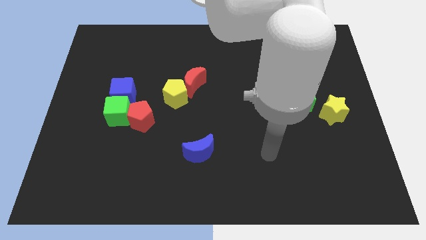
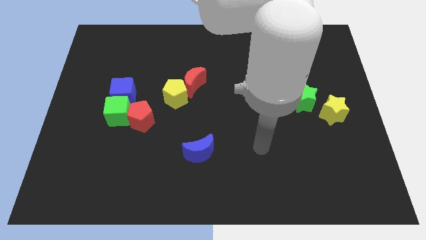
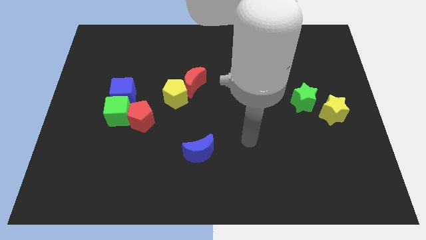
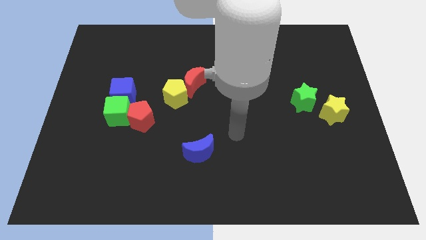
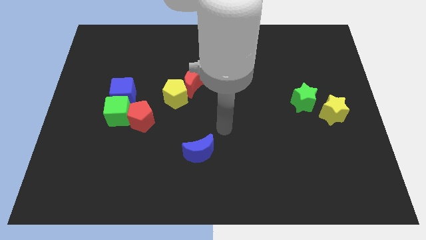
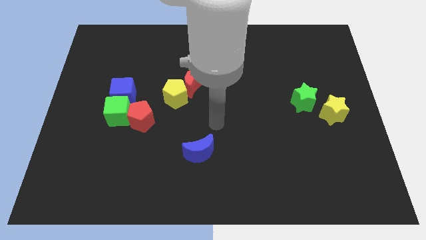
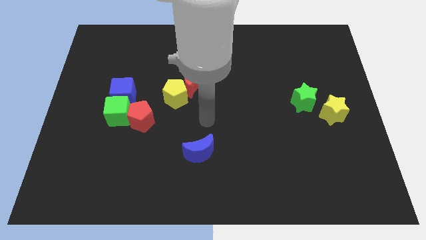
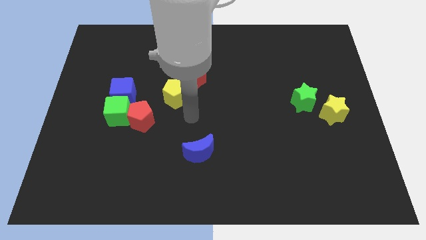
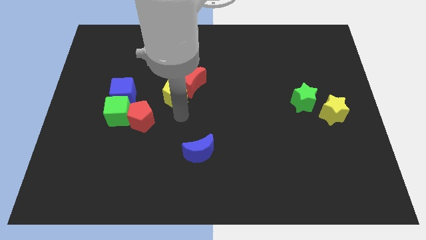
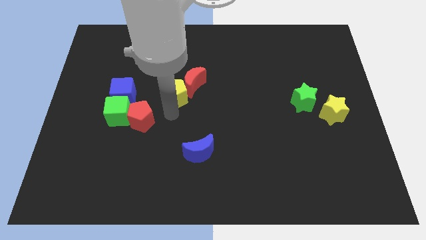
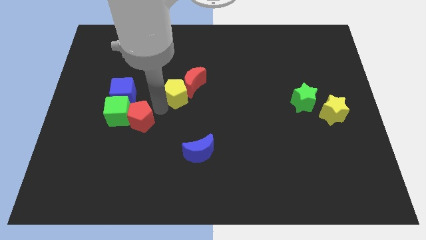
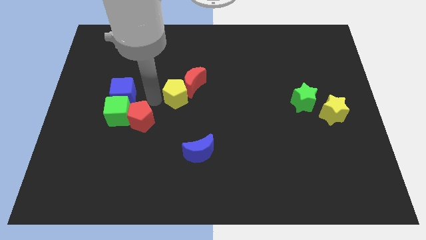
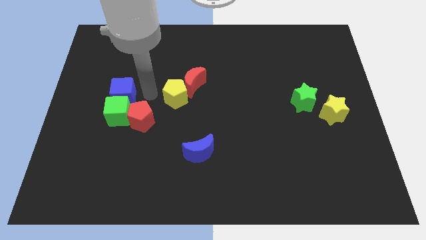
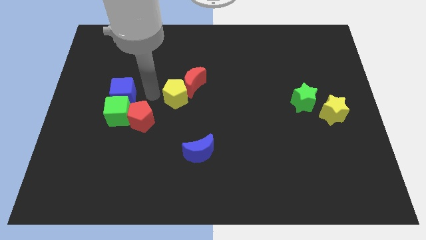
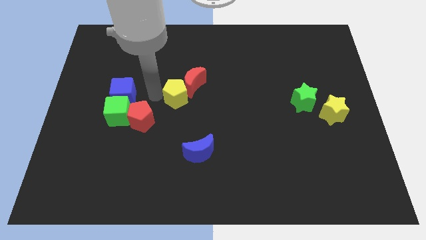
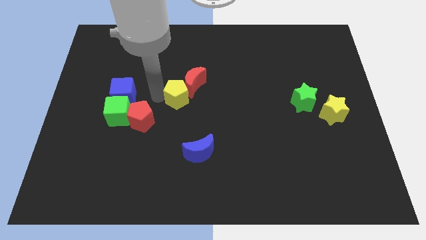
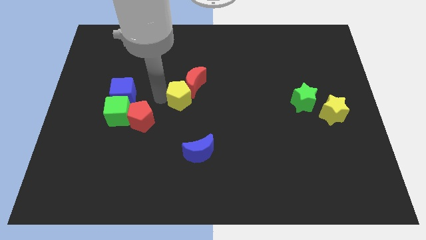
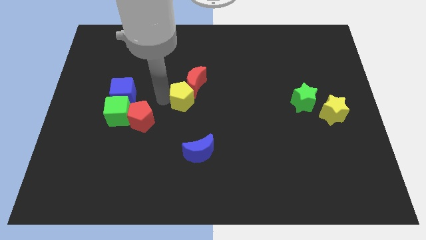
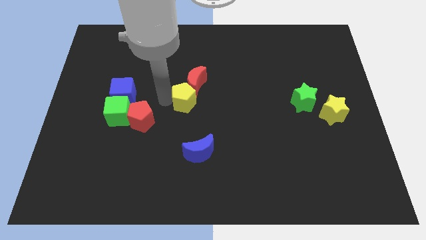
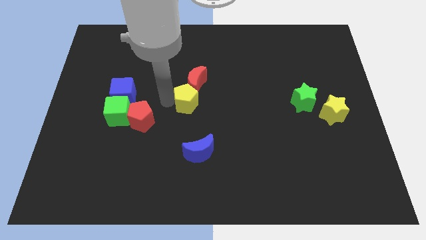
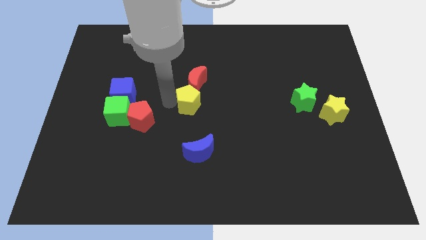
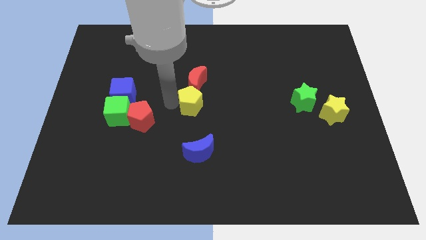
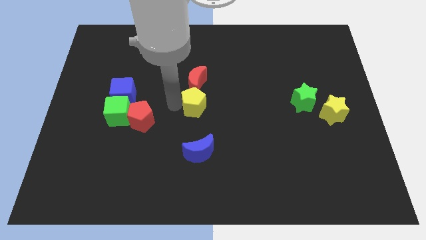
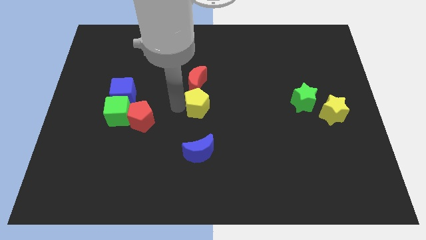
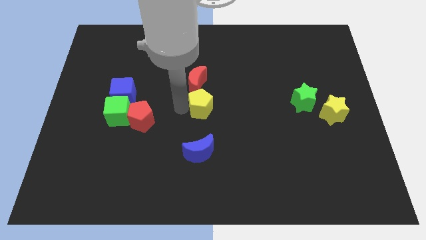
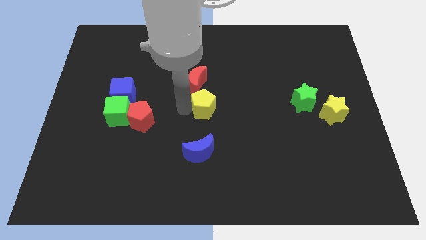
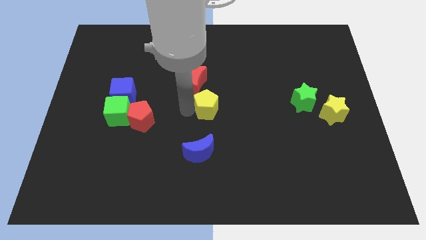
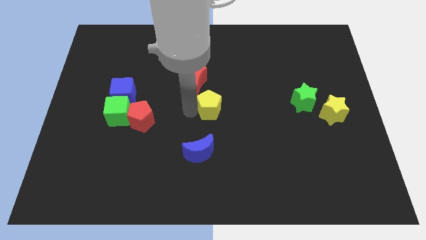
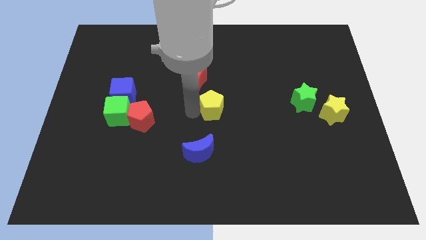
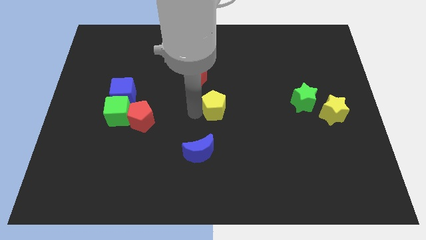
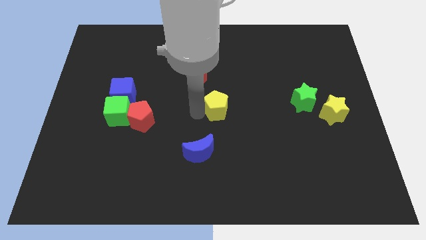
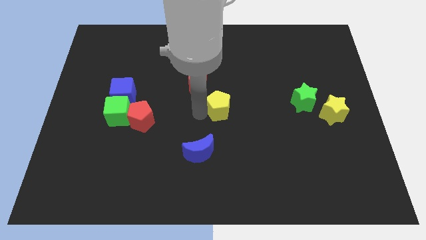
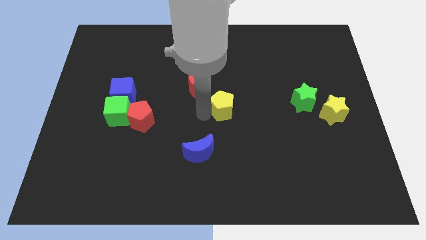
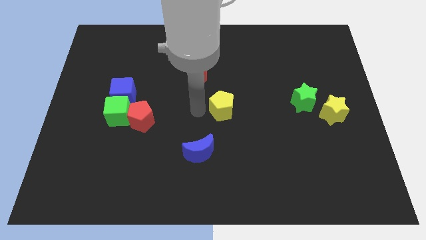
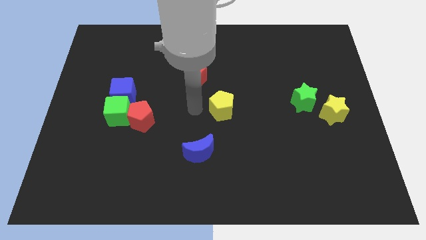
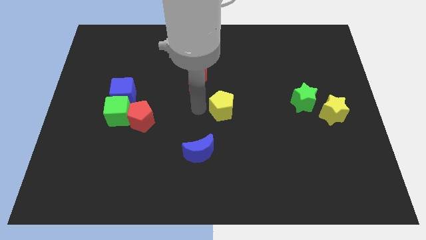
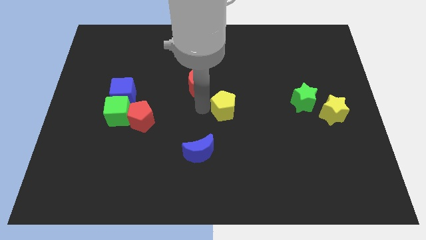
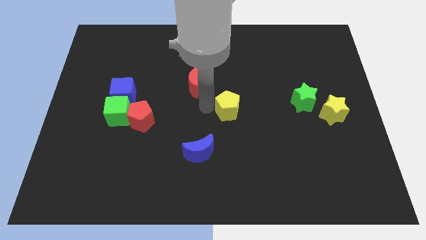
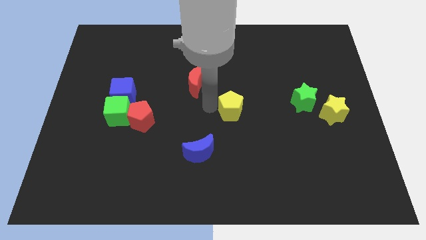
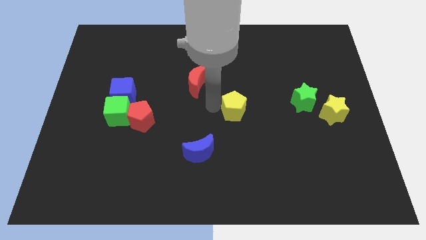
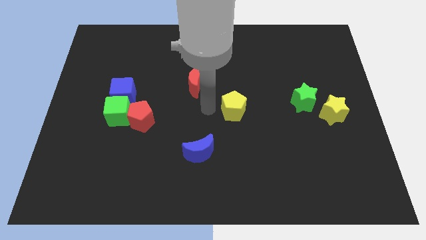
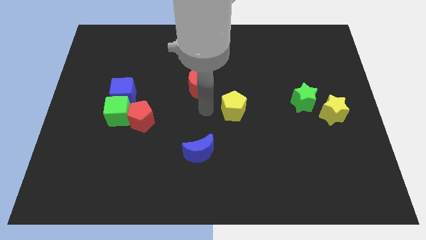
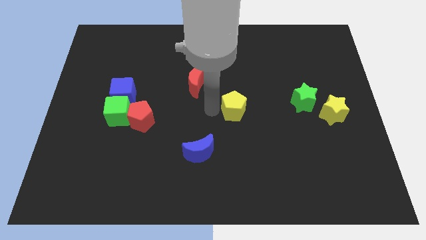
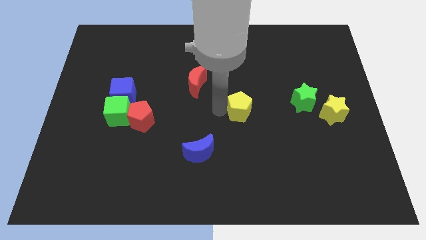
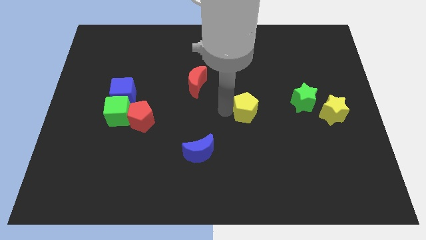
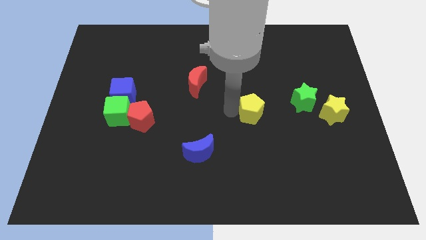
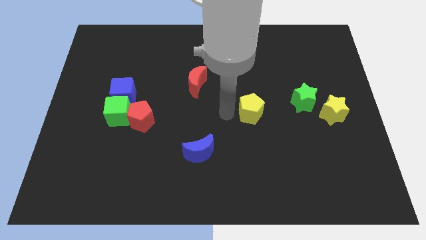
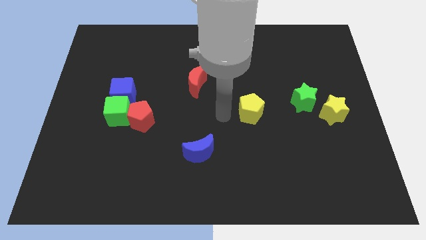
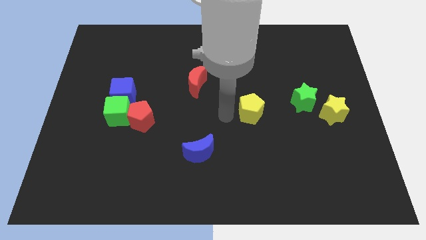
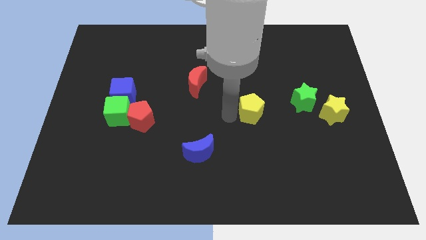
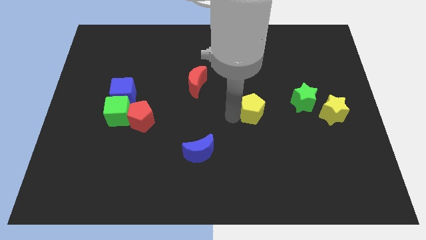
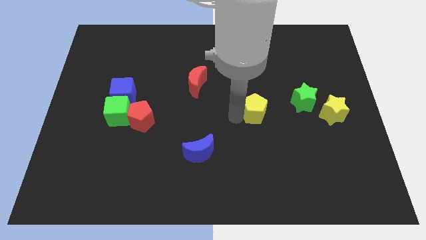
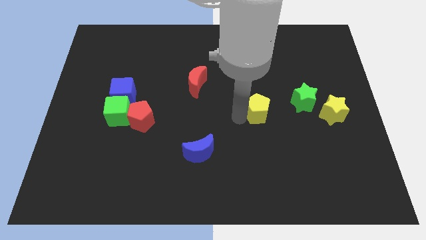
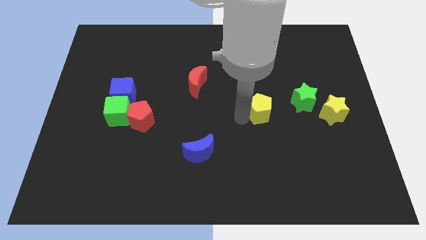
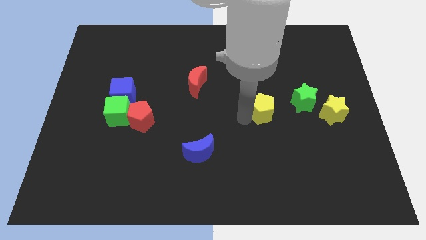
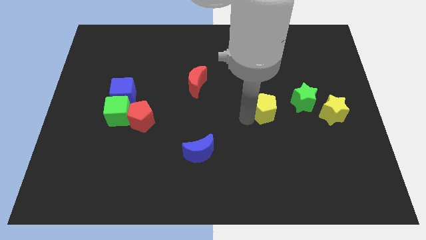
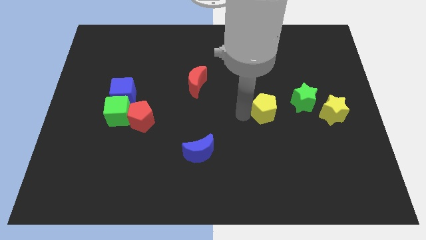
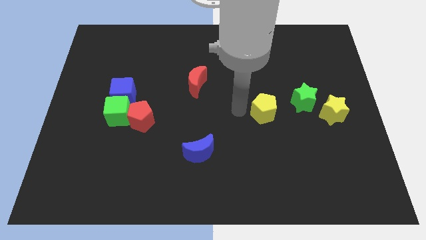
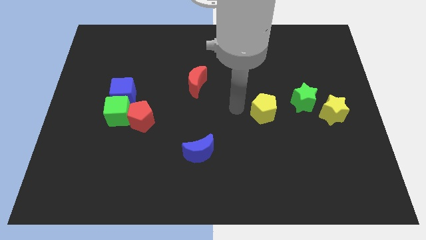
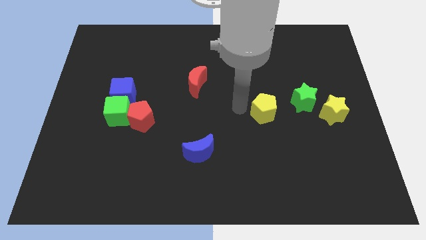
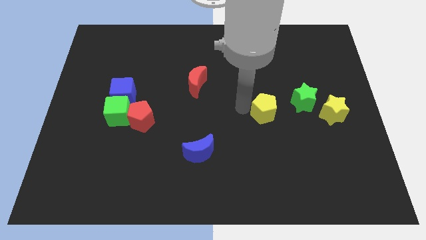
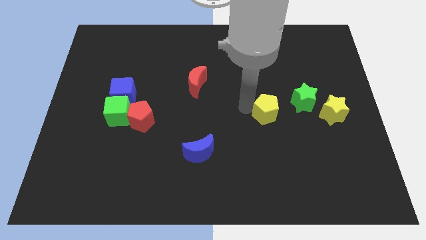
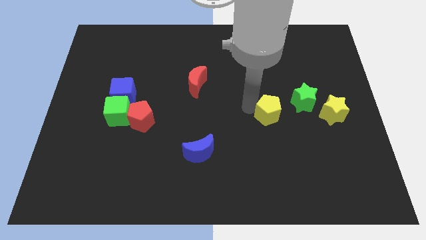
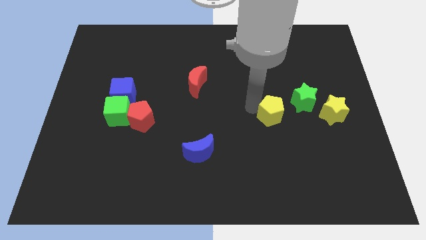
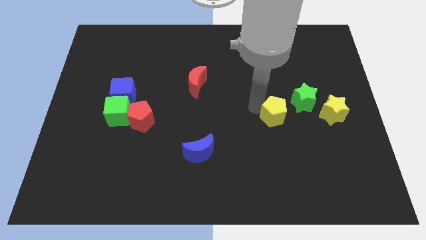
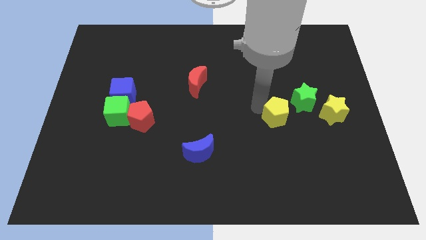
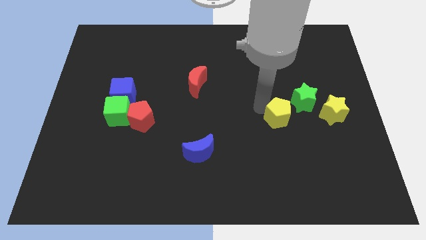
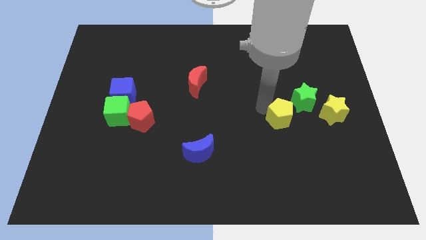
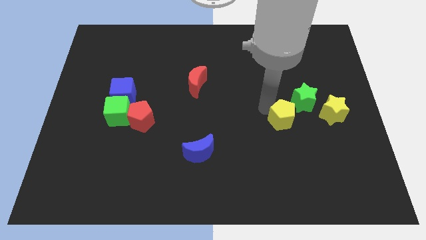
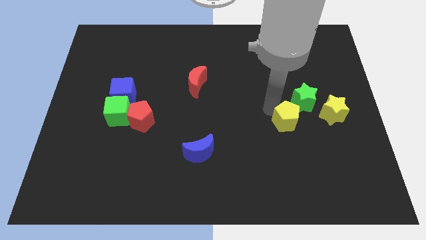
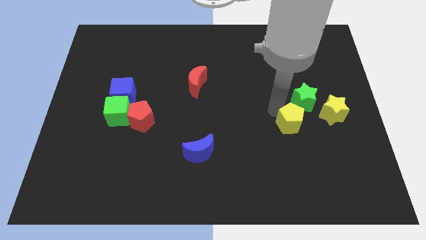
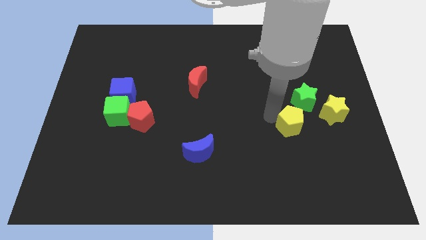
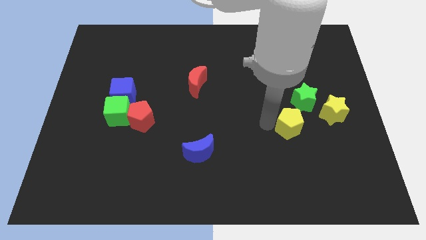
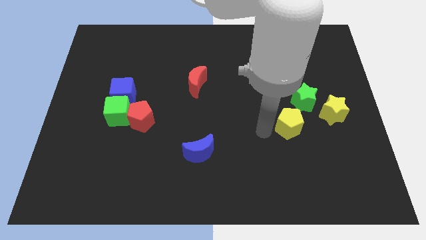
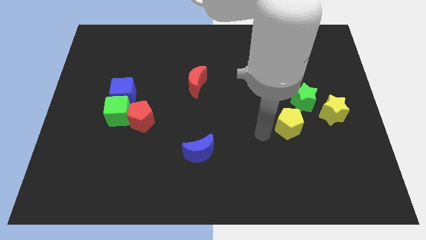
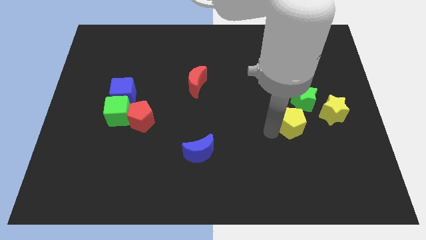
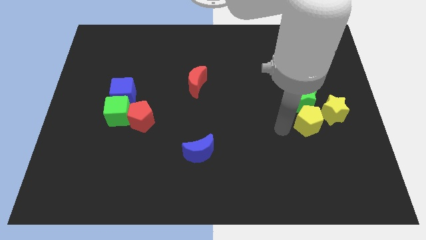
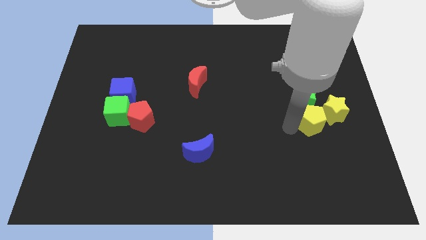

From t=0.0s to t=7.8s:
slide the yellow pentagon next to the yellow star
